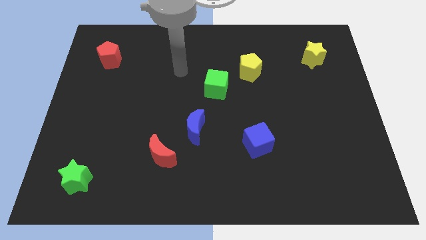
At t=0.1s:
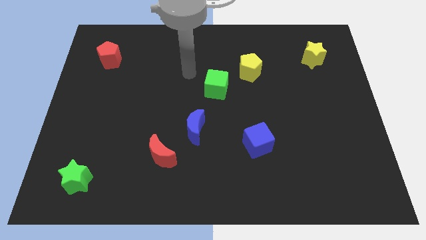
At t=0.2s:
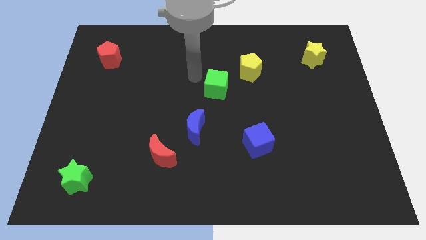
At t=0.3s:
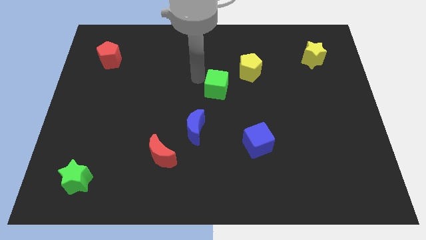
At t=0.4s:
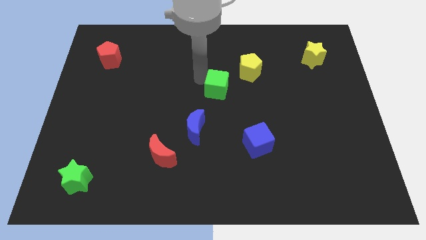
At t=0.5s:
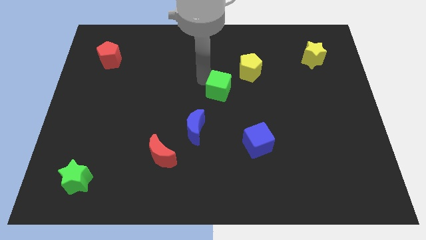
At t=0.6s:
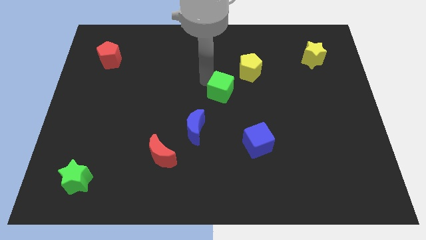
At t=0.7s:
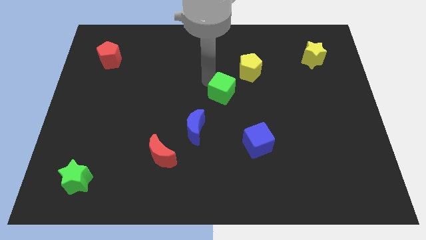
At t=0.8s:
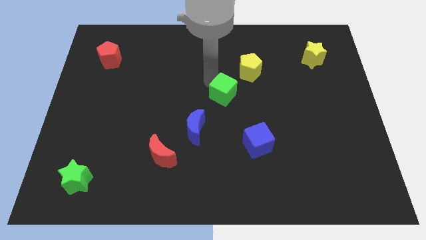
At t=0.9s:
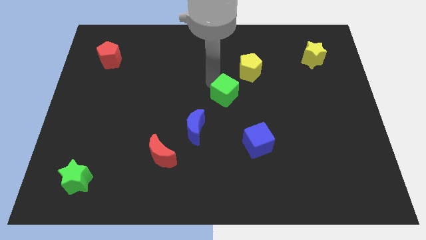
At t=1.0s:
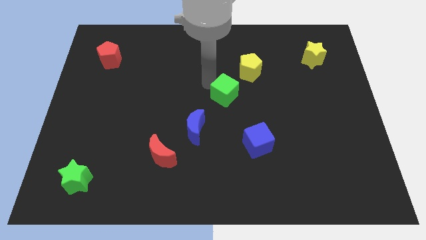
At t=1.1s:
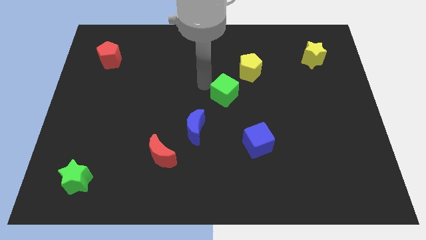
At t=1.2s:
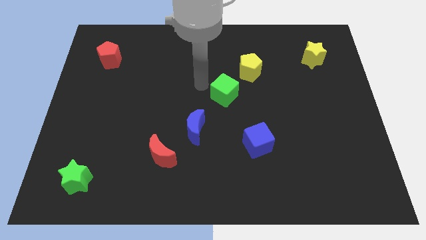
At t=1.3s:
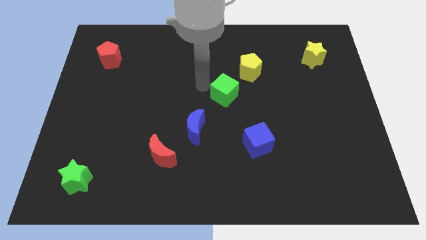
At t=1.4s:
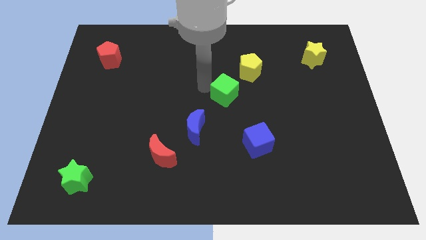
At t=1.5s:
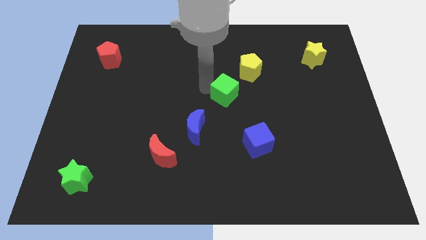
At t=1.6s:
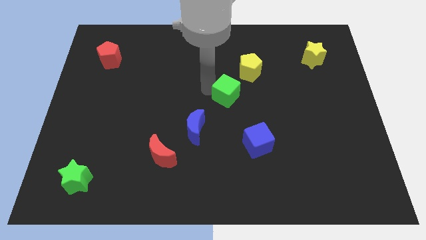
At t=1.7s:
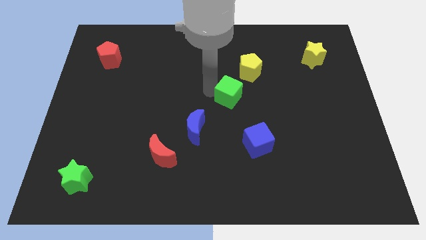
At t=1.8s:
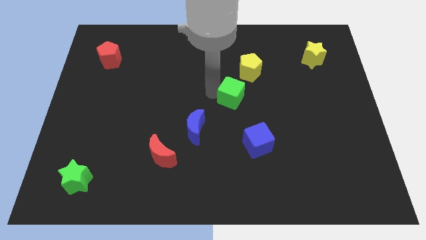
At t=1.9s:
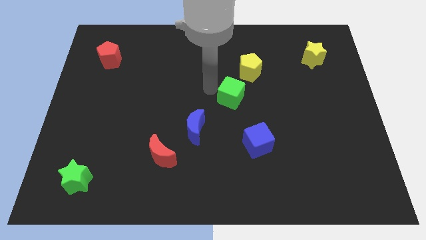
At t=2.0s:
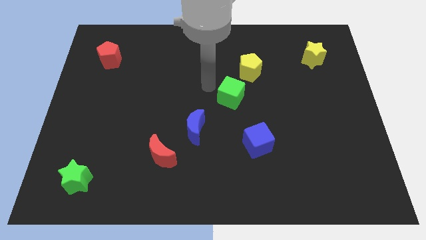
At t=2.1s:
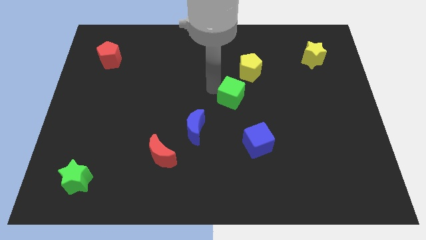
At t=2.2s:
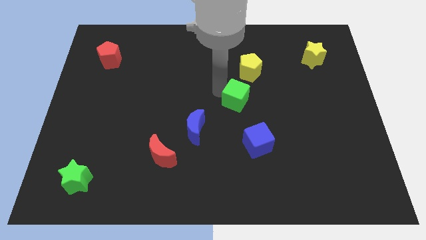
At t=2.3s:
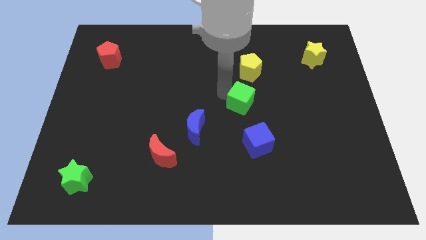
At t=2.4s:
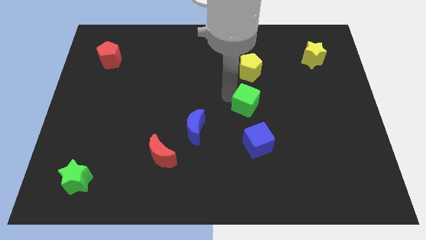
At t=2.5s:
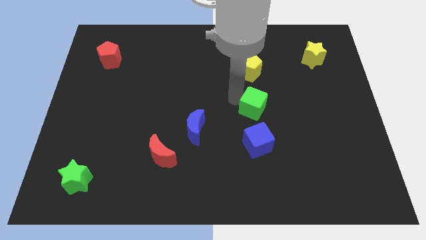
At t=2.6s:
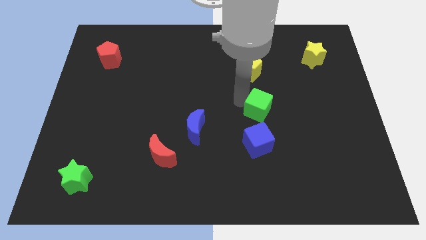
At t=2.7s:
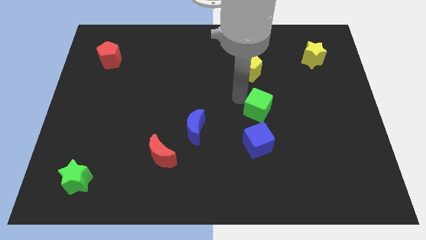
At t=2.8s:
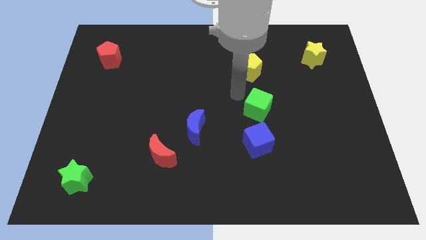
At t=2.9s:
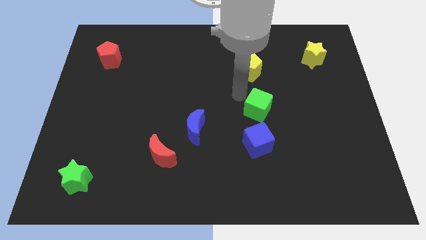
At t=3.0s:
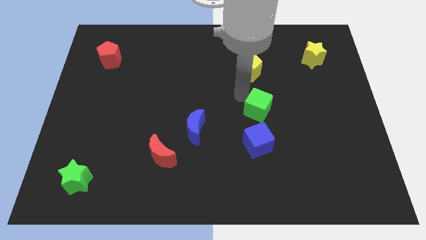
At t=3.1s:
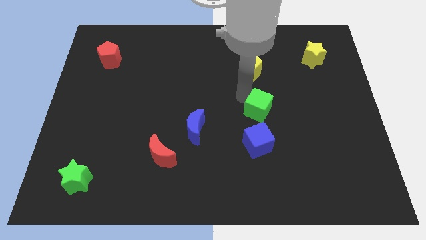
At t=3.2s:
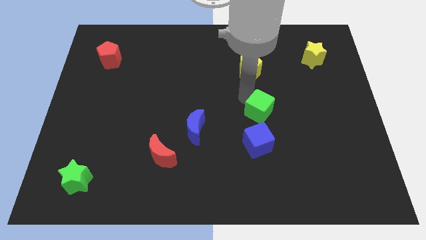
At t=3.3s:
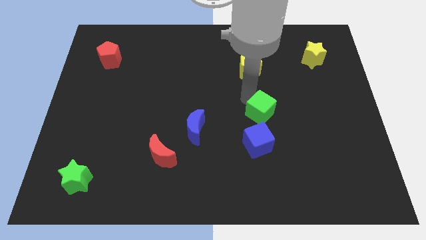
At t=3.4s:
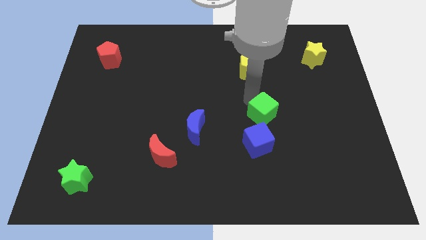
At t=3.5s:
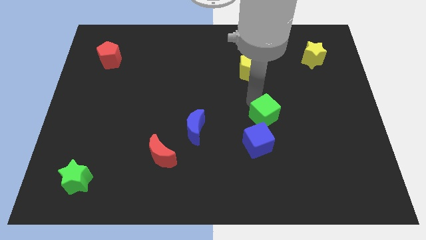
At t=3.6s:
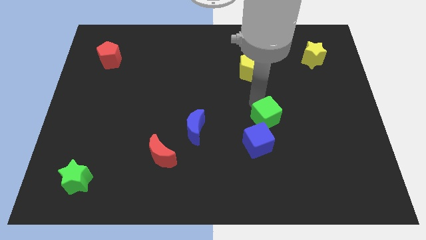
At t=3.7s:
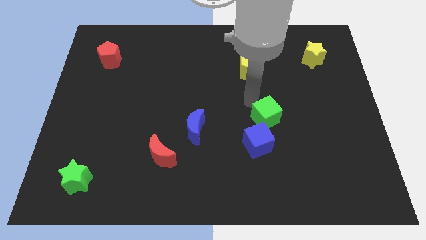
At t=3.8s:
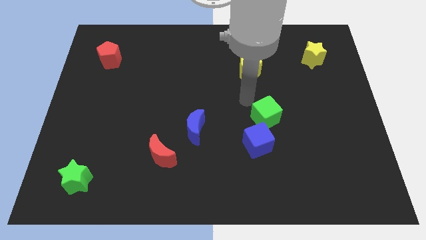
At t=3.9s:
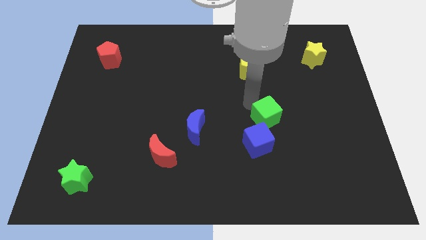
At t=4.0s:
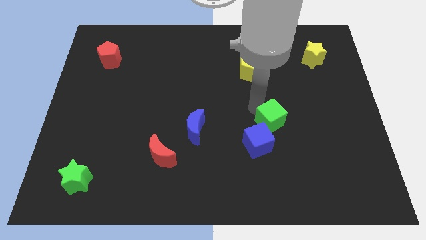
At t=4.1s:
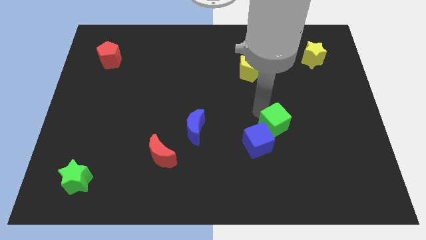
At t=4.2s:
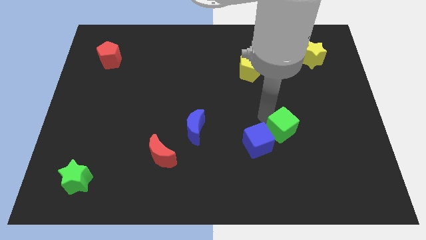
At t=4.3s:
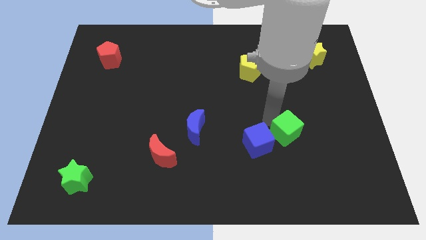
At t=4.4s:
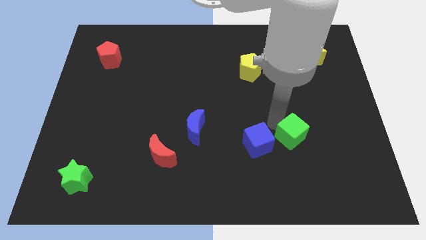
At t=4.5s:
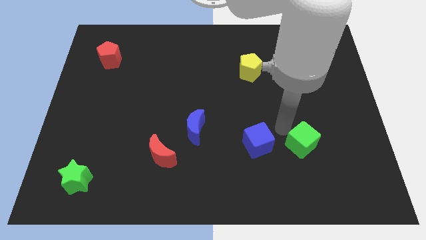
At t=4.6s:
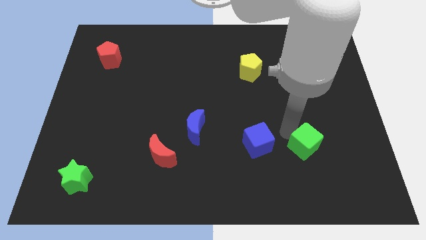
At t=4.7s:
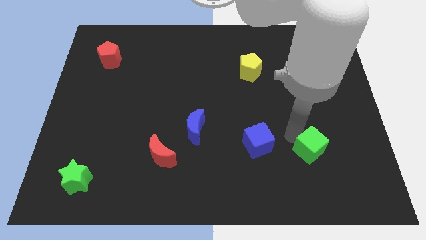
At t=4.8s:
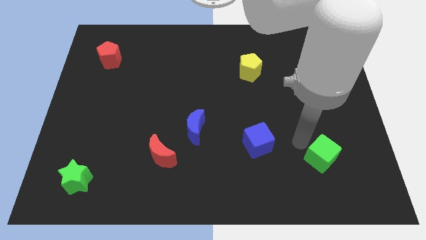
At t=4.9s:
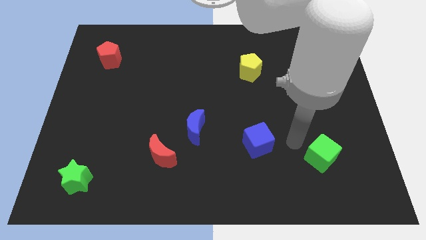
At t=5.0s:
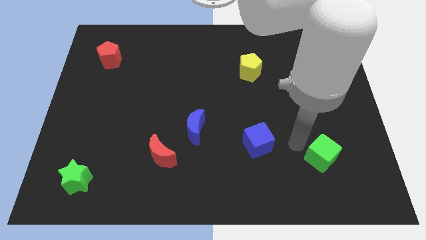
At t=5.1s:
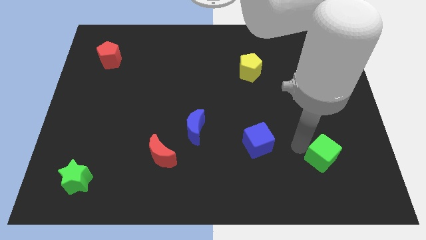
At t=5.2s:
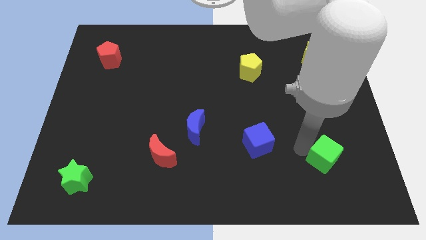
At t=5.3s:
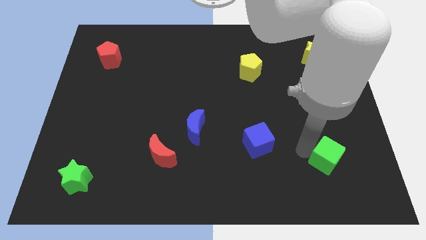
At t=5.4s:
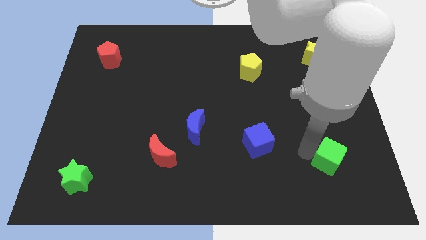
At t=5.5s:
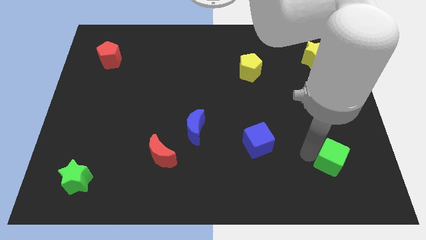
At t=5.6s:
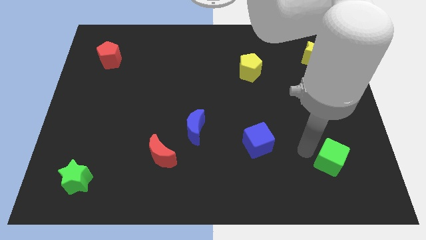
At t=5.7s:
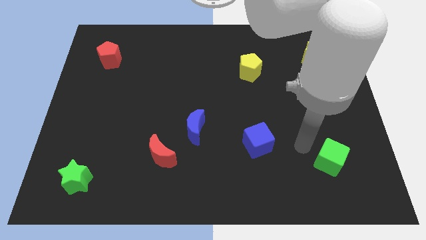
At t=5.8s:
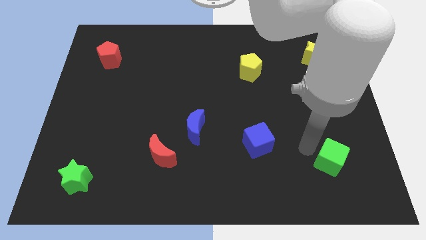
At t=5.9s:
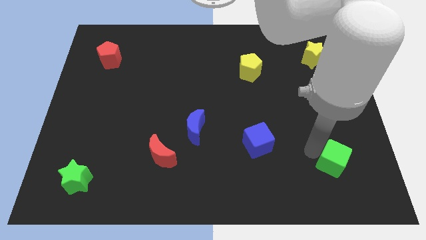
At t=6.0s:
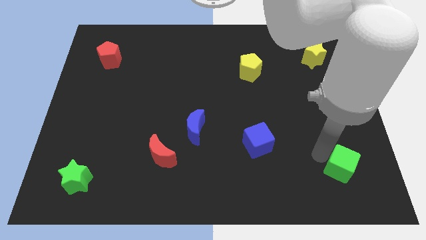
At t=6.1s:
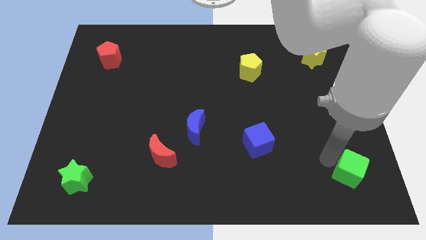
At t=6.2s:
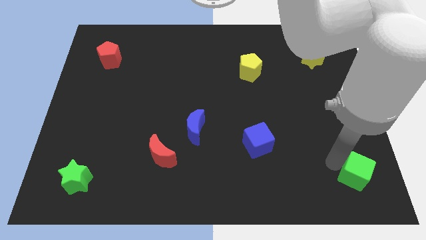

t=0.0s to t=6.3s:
put the green cube to the bottom right corner
